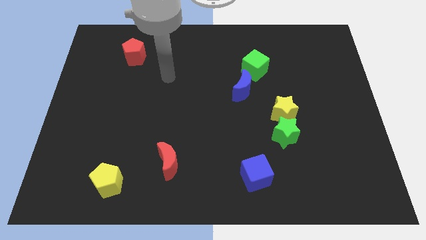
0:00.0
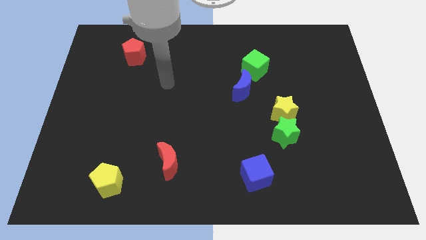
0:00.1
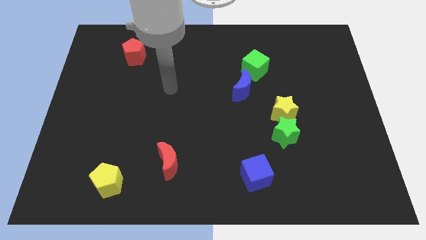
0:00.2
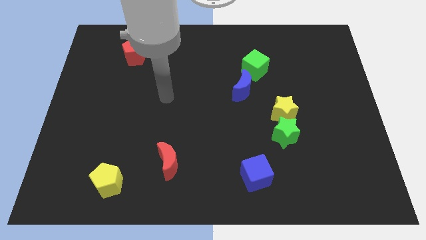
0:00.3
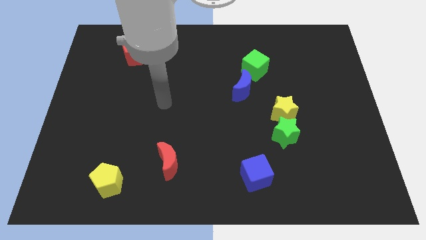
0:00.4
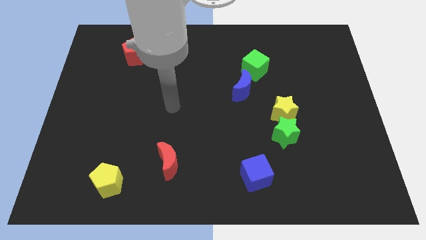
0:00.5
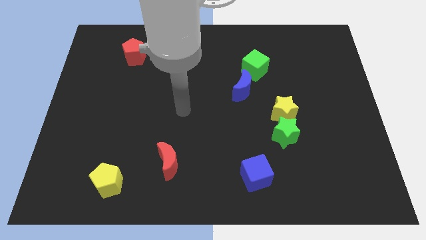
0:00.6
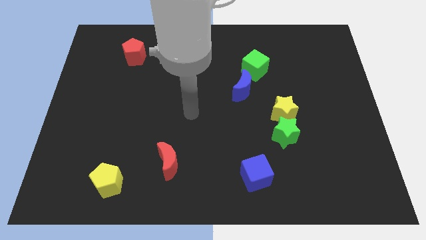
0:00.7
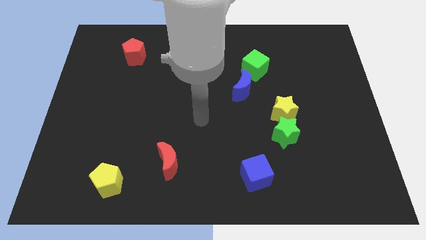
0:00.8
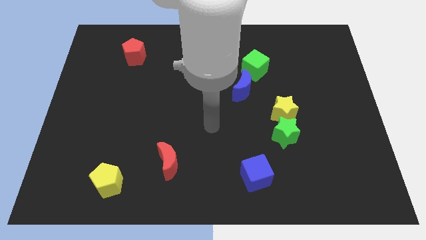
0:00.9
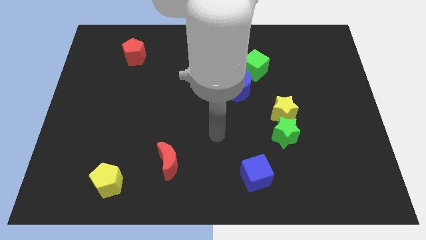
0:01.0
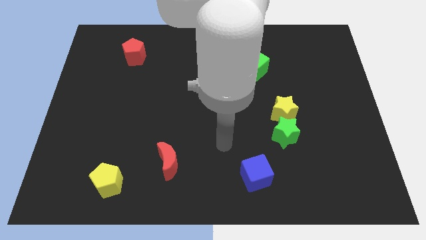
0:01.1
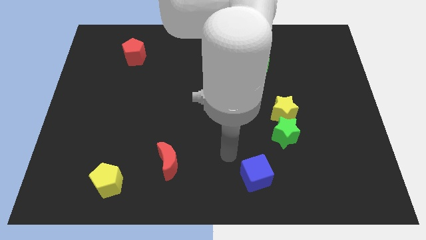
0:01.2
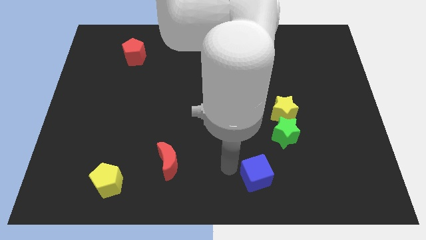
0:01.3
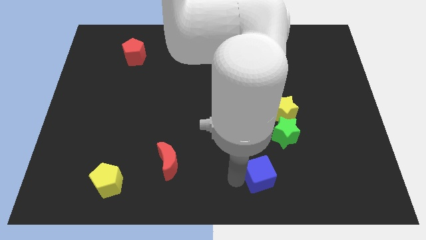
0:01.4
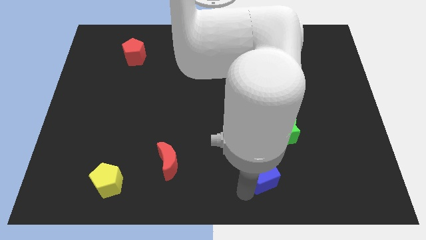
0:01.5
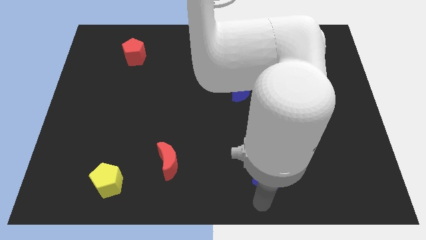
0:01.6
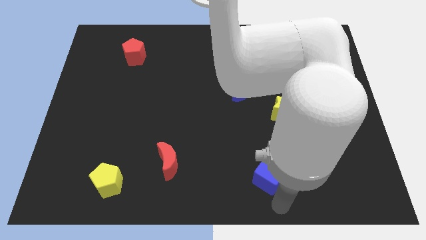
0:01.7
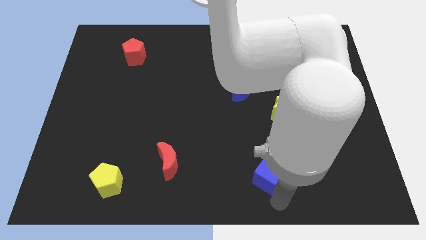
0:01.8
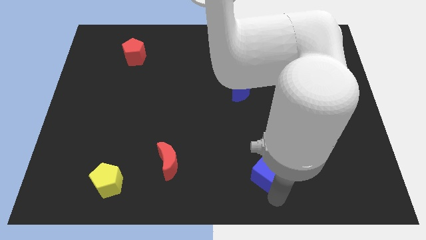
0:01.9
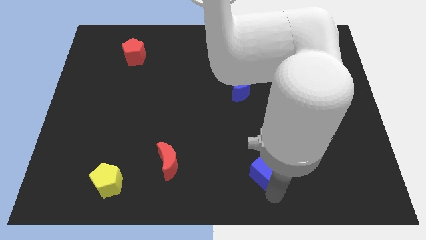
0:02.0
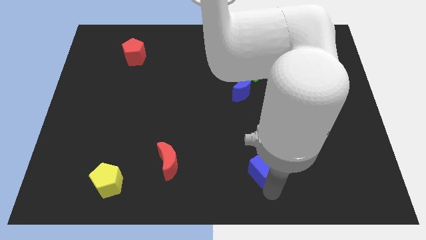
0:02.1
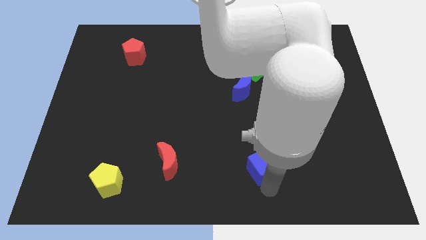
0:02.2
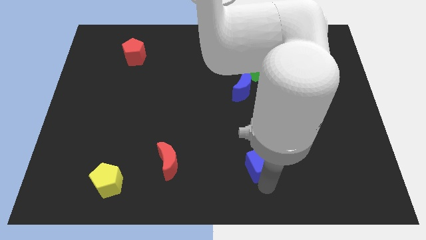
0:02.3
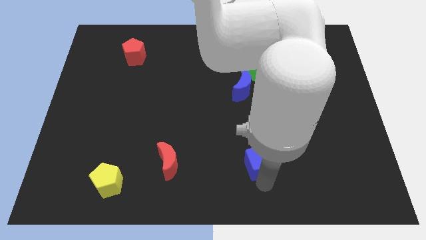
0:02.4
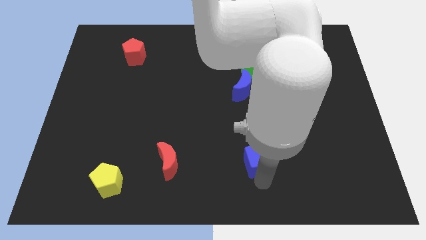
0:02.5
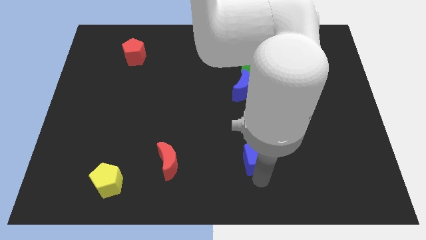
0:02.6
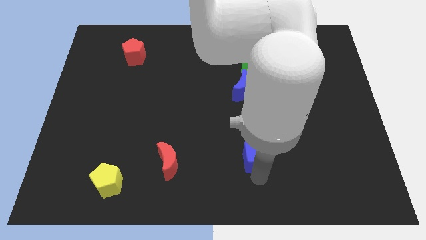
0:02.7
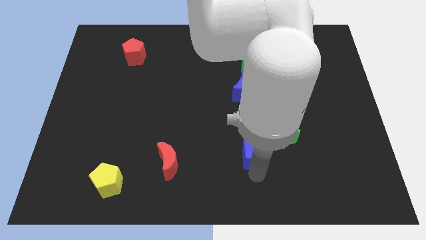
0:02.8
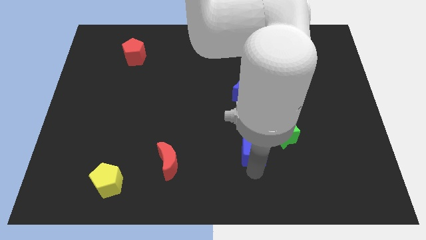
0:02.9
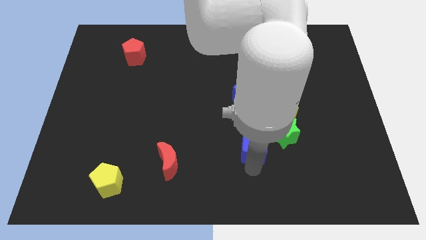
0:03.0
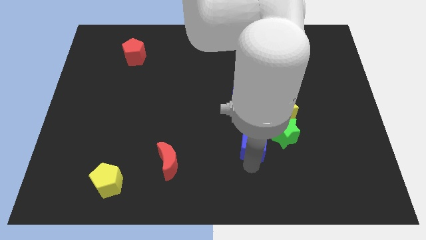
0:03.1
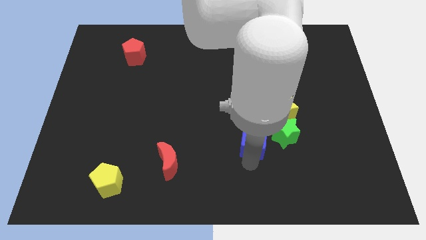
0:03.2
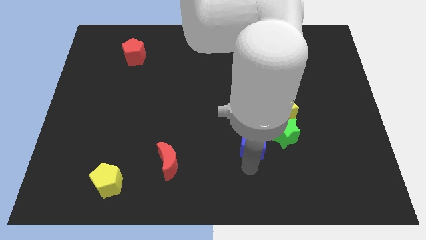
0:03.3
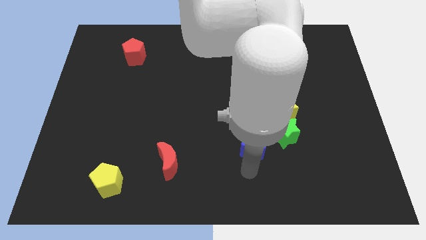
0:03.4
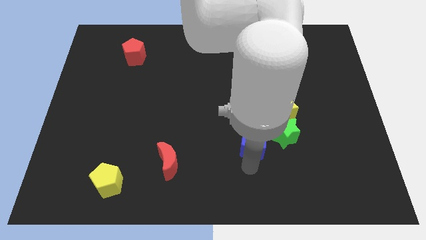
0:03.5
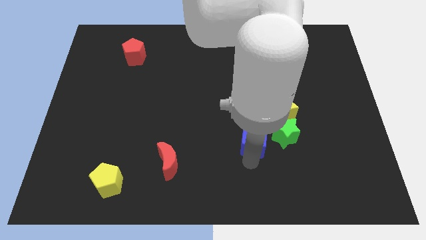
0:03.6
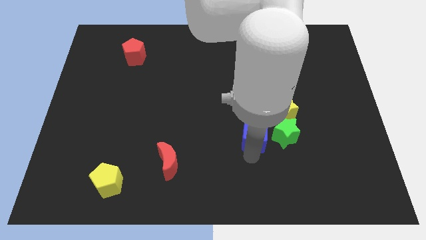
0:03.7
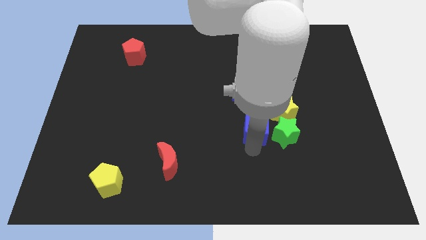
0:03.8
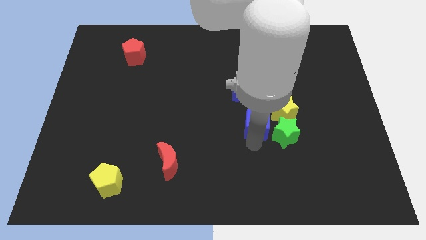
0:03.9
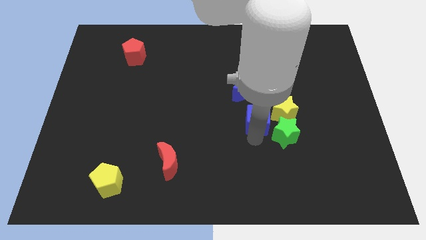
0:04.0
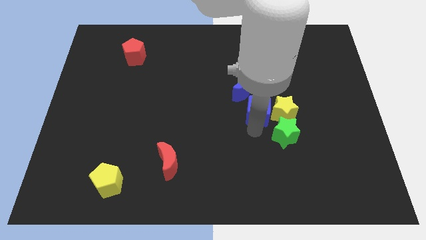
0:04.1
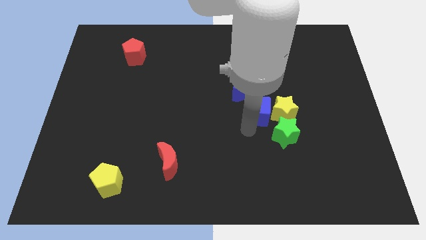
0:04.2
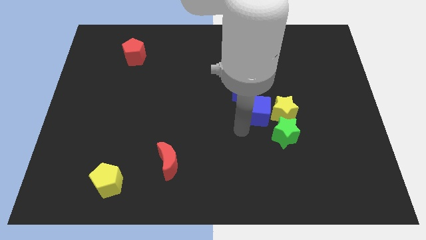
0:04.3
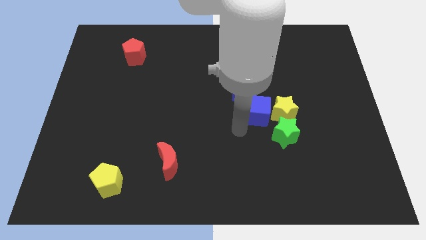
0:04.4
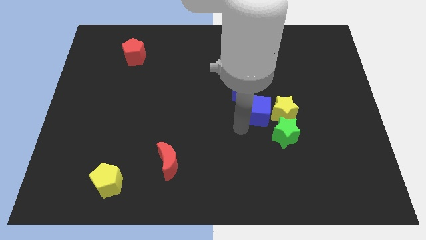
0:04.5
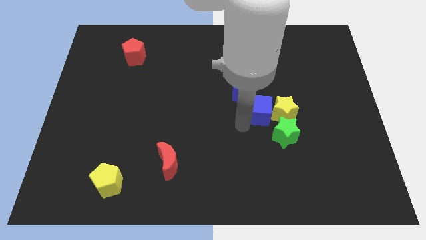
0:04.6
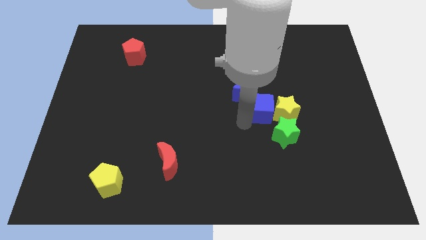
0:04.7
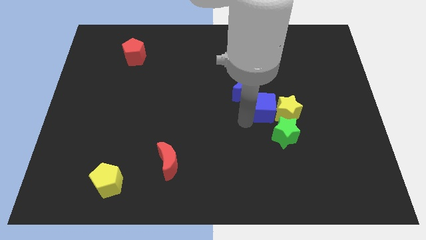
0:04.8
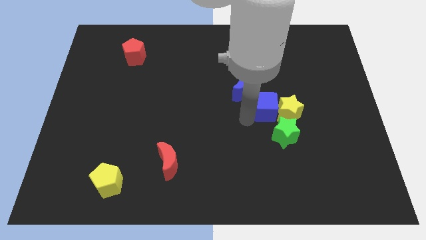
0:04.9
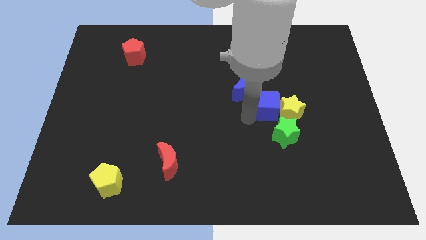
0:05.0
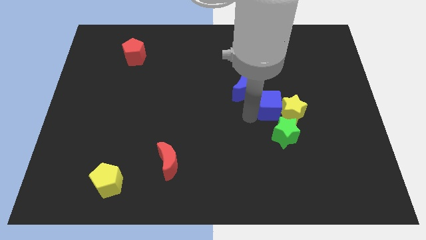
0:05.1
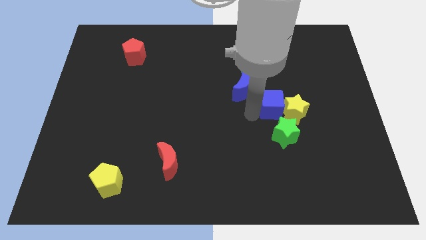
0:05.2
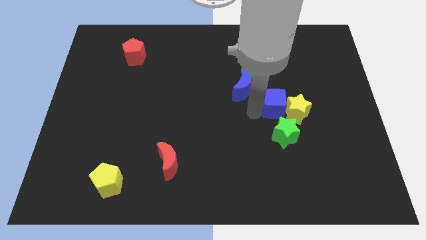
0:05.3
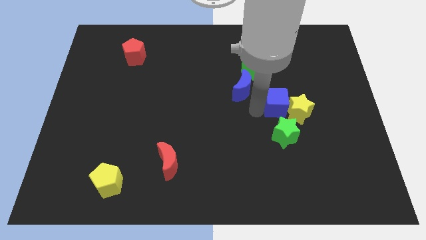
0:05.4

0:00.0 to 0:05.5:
push the blue cube just right of the blue moon

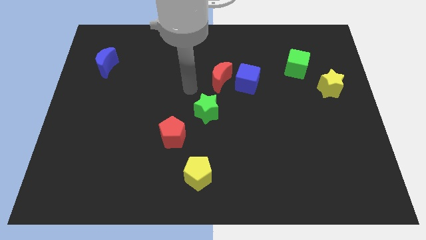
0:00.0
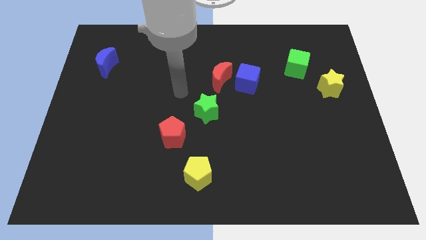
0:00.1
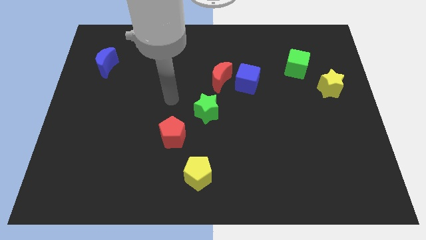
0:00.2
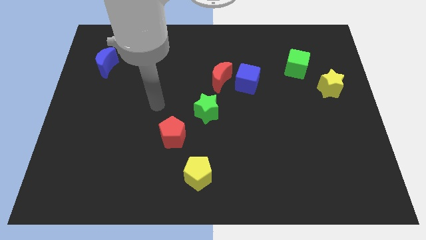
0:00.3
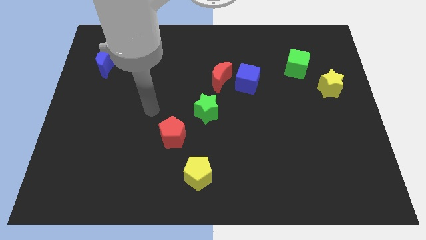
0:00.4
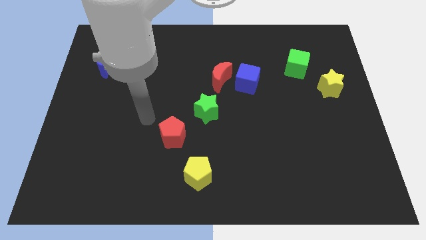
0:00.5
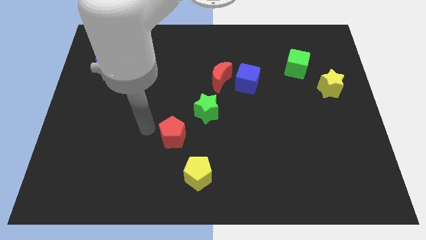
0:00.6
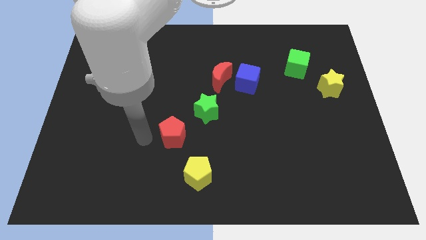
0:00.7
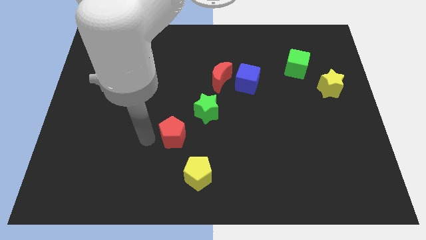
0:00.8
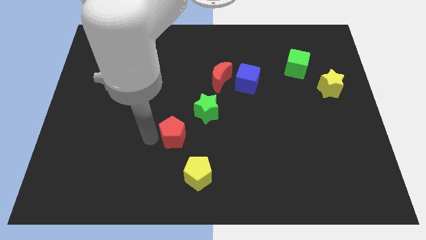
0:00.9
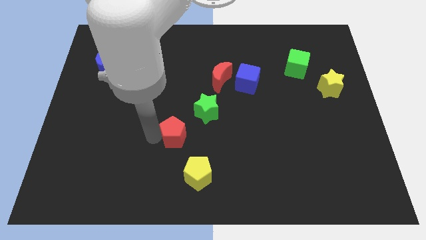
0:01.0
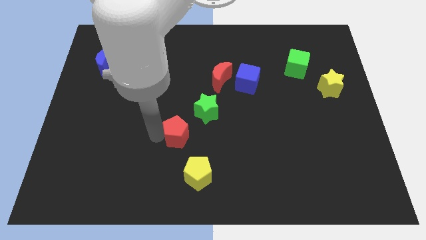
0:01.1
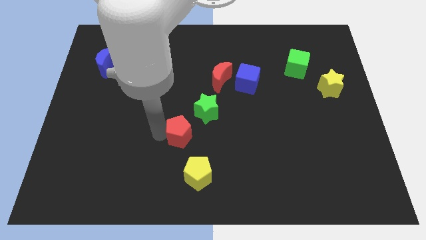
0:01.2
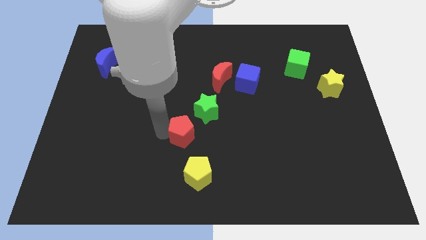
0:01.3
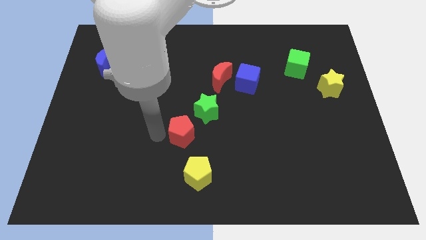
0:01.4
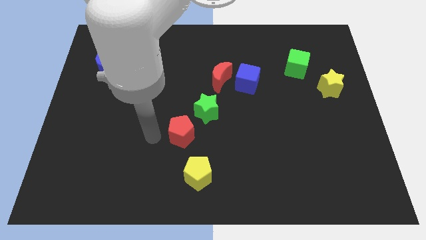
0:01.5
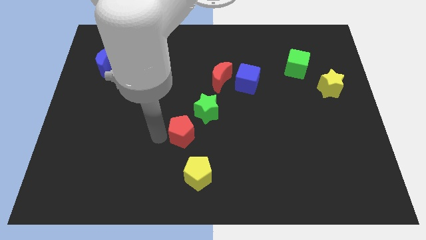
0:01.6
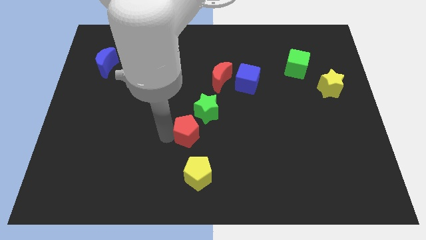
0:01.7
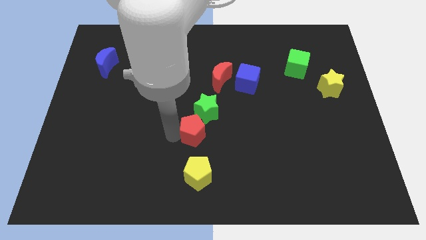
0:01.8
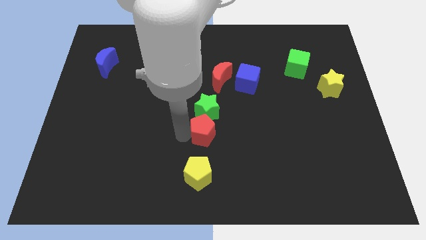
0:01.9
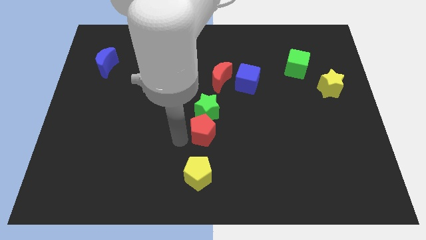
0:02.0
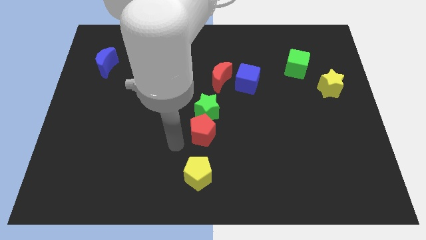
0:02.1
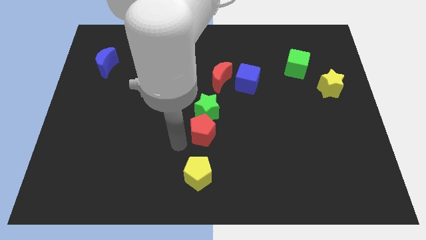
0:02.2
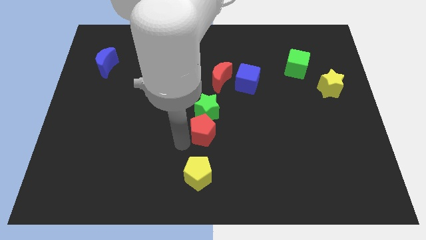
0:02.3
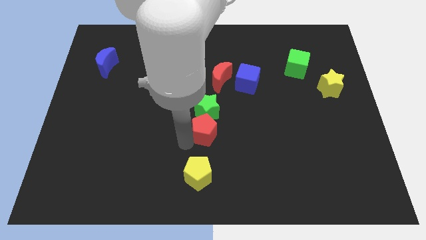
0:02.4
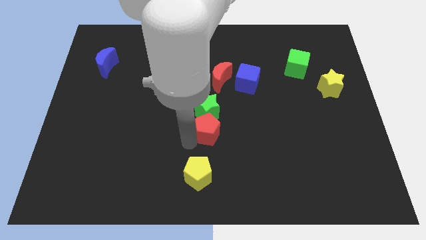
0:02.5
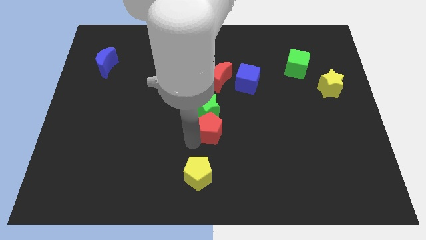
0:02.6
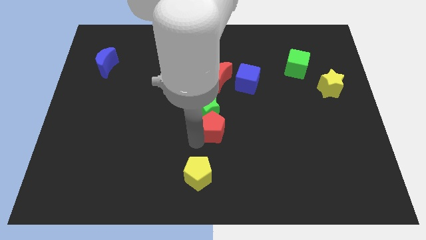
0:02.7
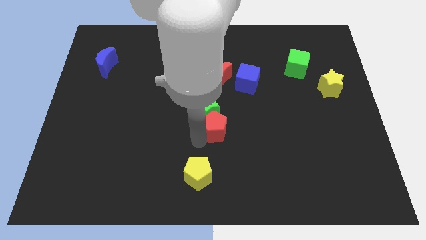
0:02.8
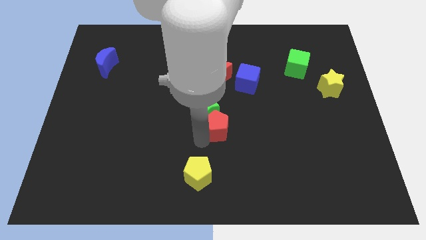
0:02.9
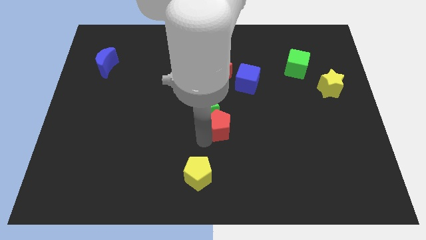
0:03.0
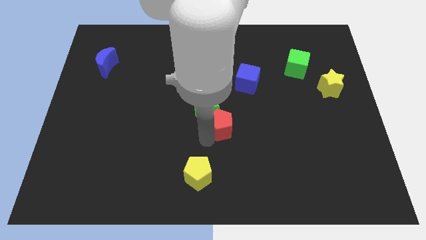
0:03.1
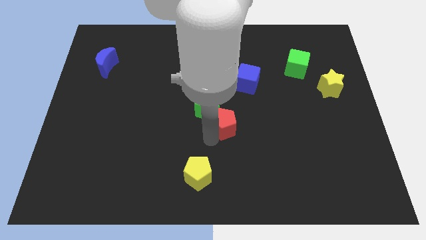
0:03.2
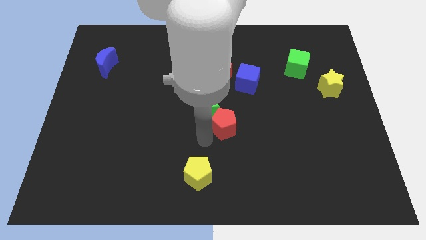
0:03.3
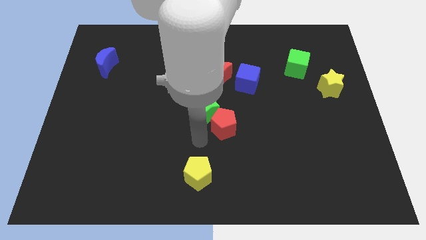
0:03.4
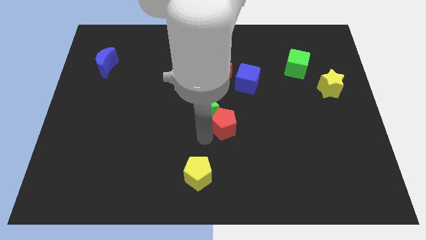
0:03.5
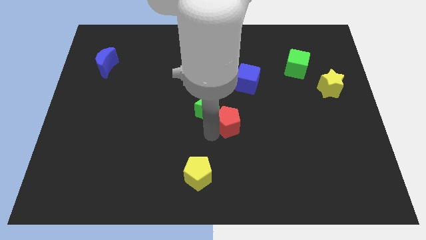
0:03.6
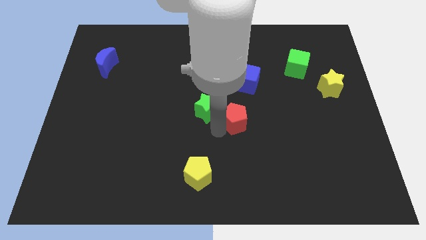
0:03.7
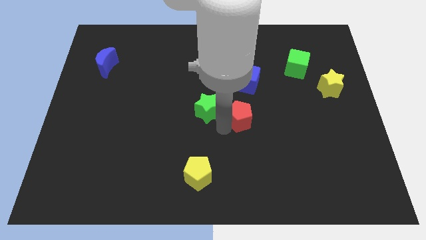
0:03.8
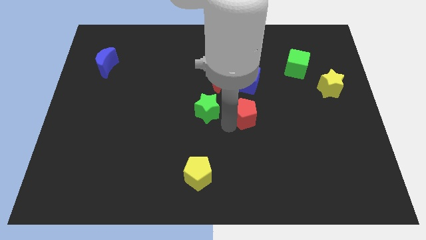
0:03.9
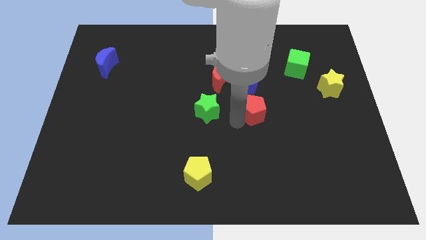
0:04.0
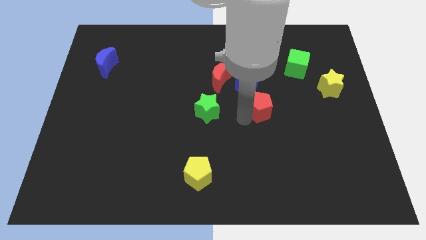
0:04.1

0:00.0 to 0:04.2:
push the red pentagon to the bottom right of the blue cube
